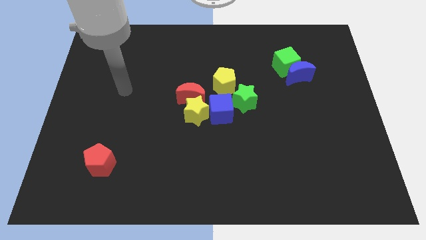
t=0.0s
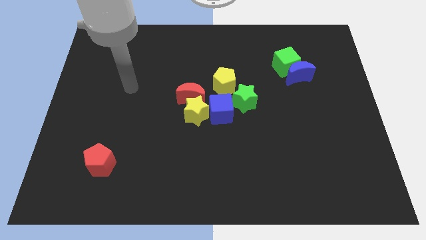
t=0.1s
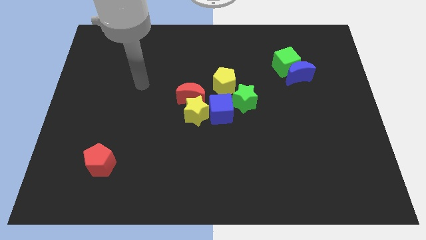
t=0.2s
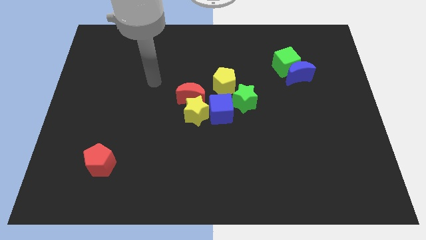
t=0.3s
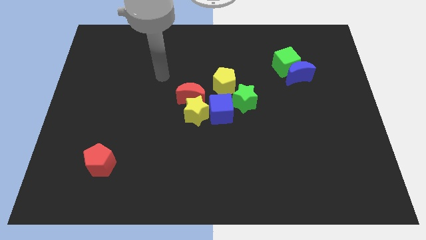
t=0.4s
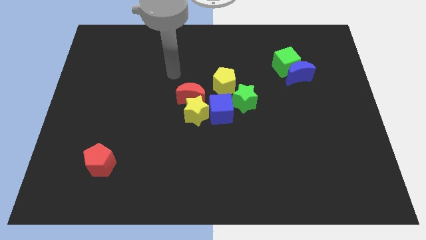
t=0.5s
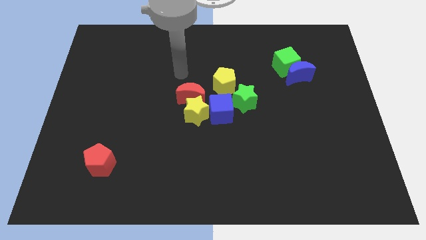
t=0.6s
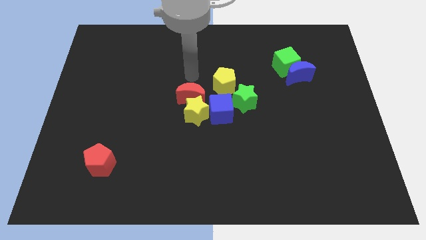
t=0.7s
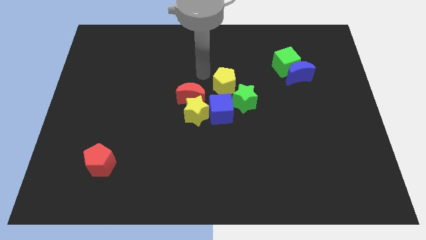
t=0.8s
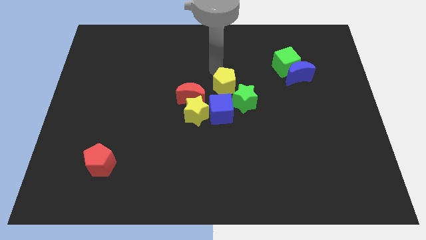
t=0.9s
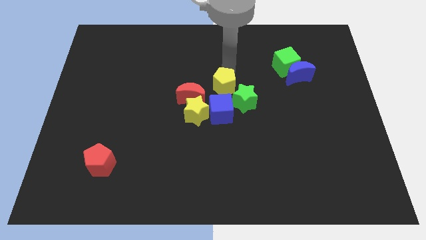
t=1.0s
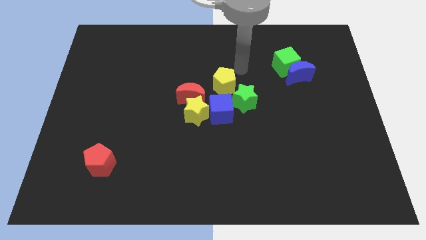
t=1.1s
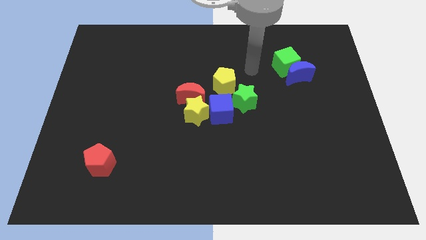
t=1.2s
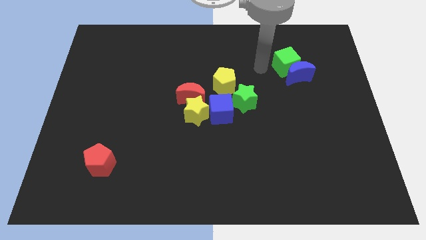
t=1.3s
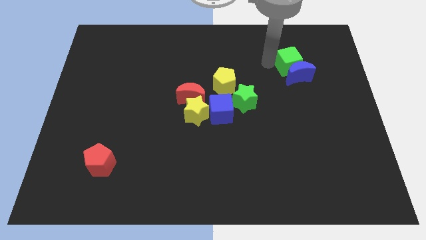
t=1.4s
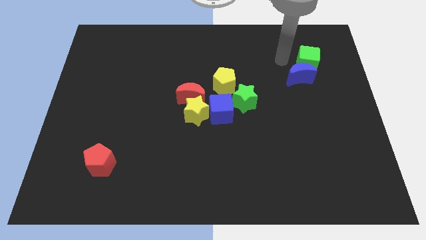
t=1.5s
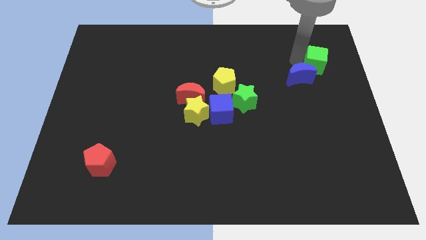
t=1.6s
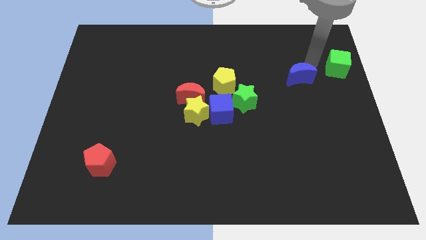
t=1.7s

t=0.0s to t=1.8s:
pull the blue moon apart from the green cube

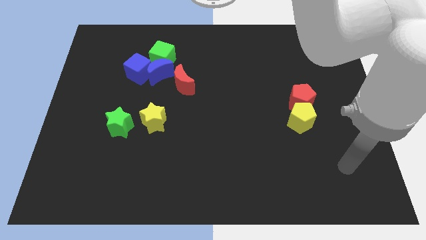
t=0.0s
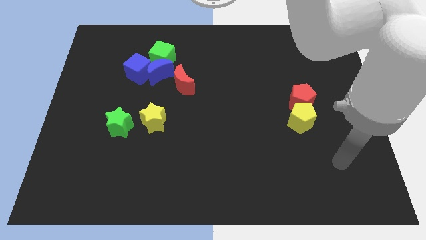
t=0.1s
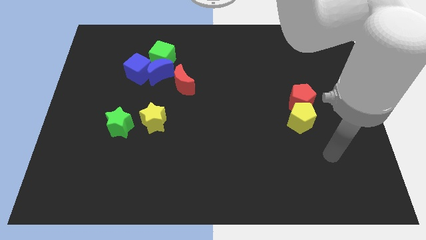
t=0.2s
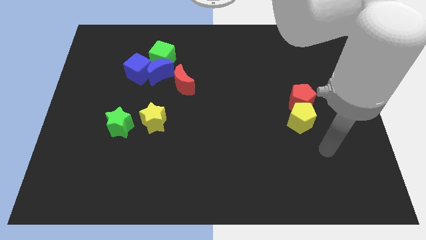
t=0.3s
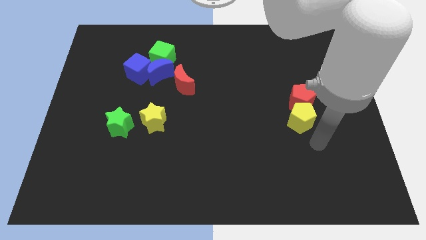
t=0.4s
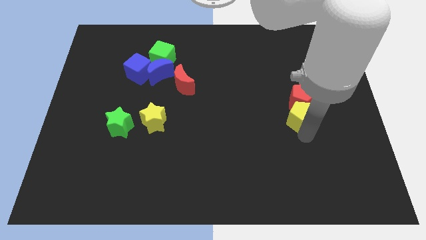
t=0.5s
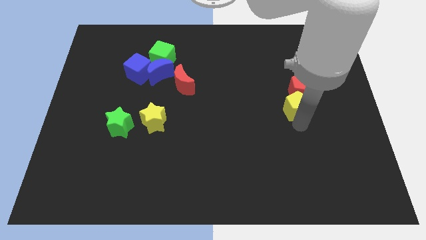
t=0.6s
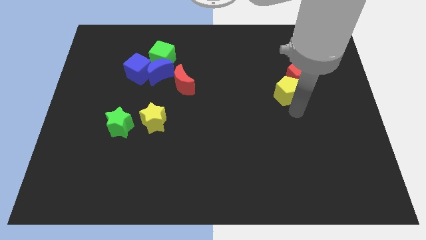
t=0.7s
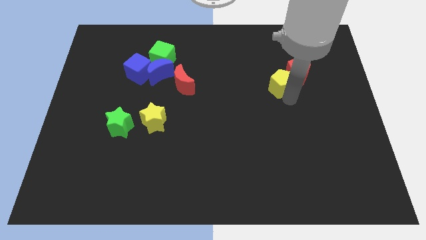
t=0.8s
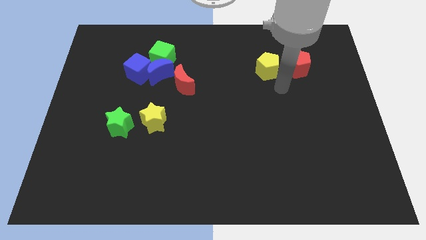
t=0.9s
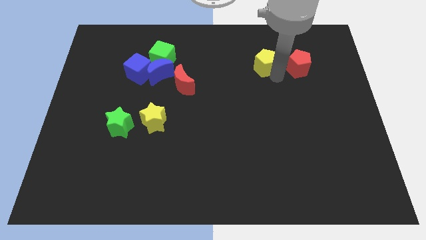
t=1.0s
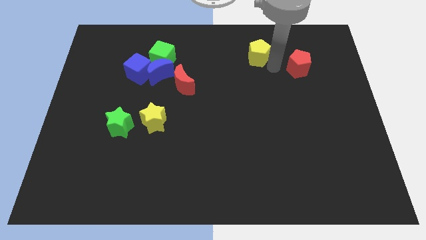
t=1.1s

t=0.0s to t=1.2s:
separate the red pentagon from the yellow pentagon

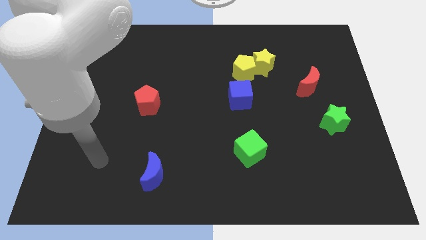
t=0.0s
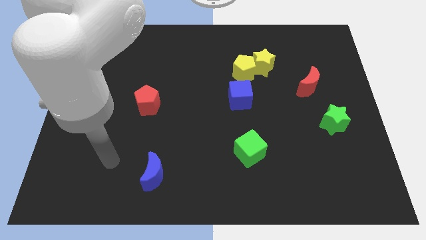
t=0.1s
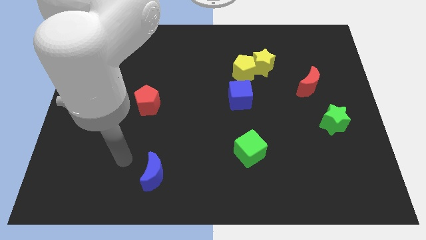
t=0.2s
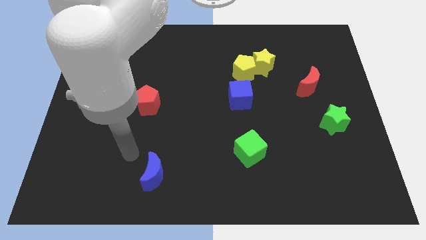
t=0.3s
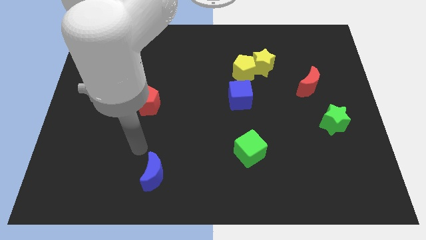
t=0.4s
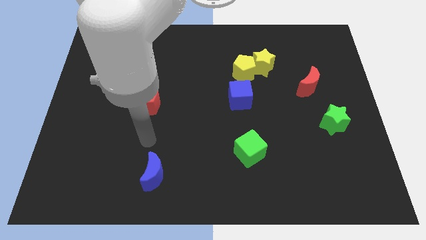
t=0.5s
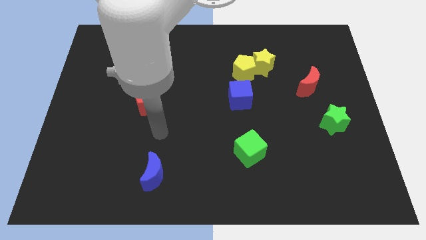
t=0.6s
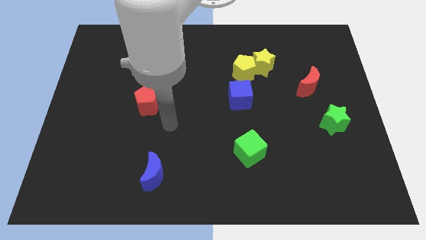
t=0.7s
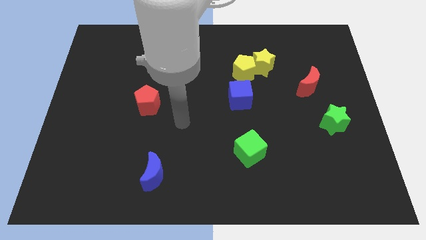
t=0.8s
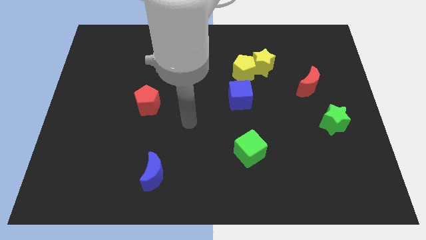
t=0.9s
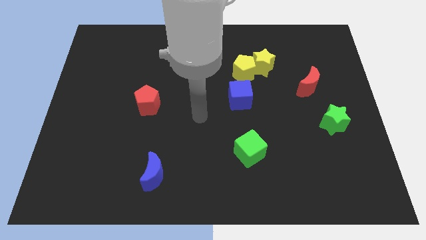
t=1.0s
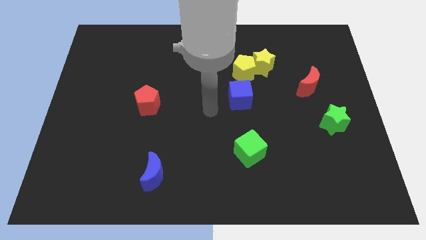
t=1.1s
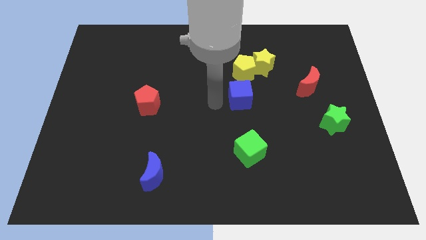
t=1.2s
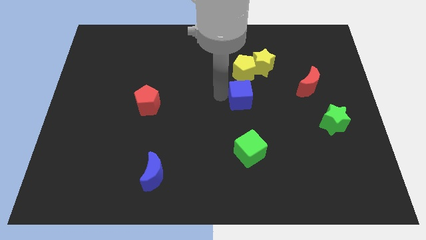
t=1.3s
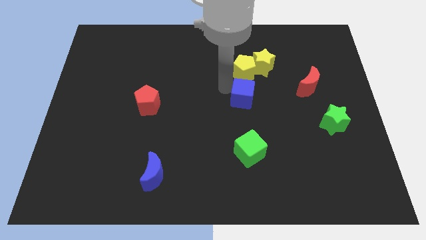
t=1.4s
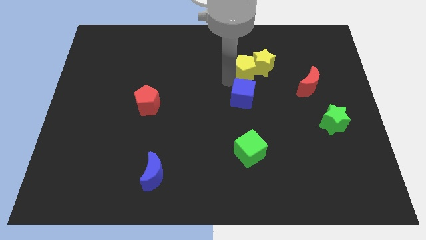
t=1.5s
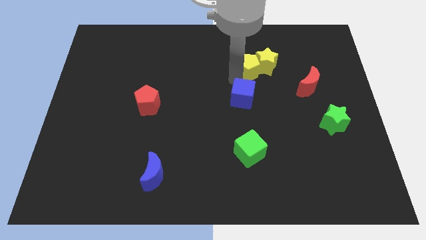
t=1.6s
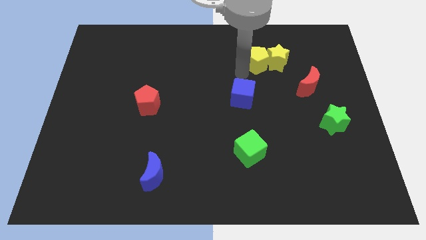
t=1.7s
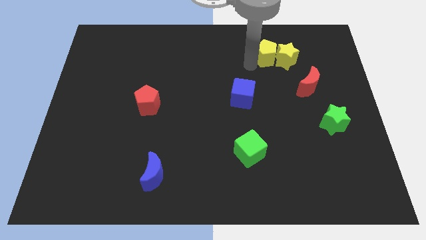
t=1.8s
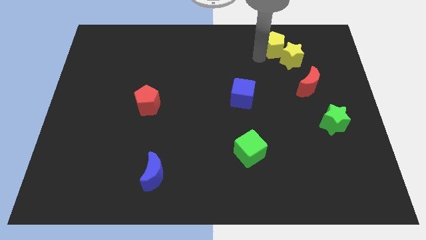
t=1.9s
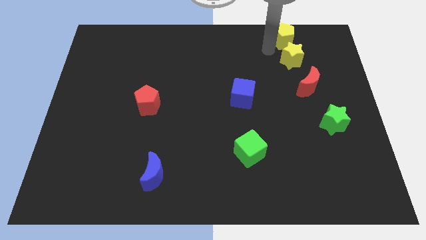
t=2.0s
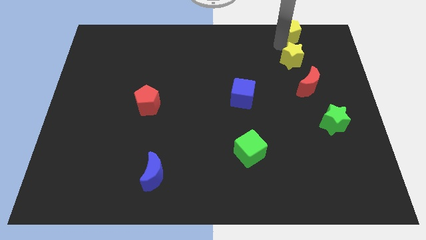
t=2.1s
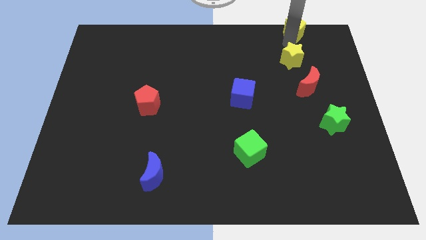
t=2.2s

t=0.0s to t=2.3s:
separate the yellow star from the yellow pentagon

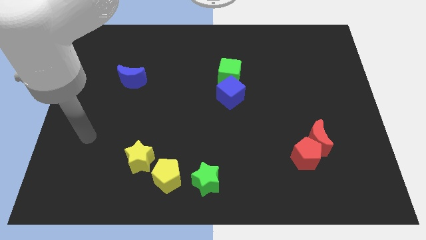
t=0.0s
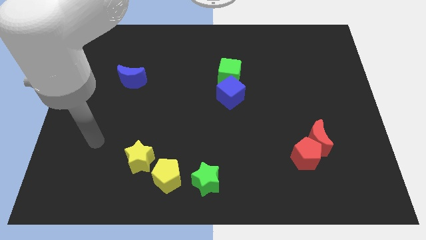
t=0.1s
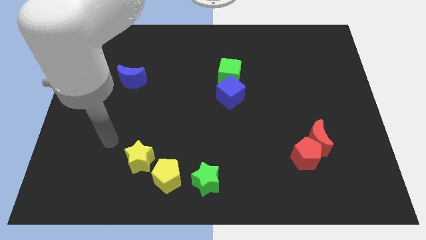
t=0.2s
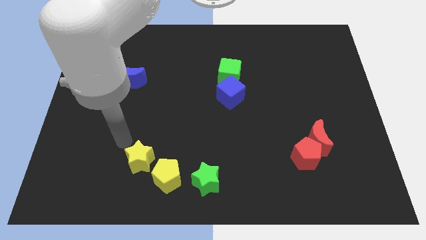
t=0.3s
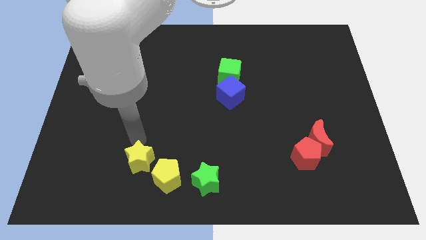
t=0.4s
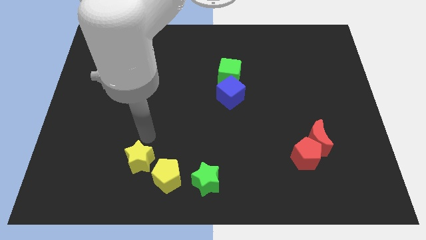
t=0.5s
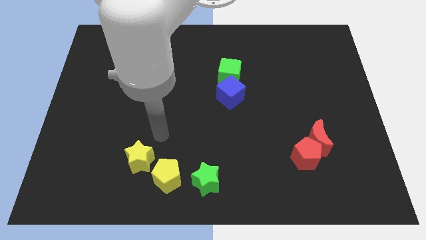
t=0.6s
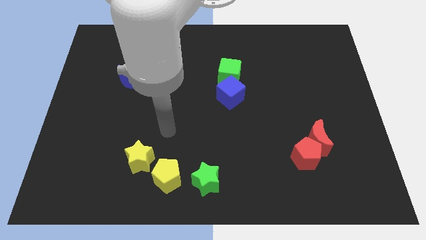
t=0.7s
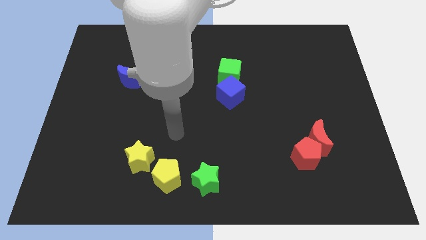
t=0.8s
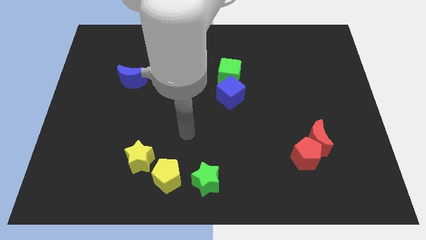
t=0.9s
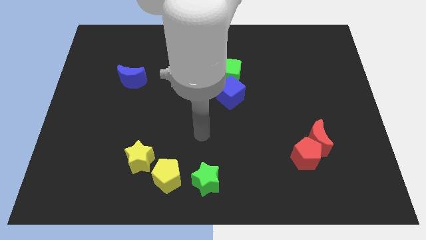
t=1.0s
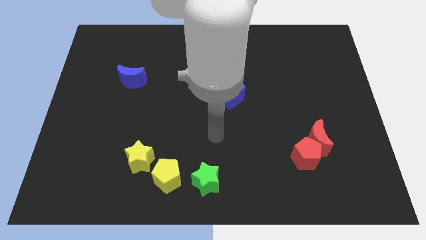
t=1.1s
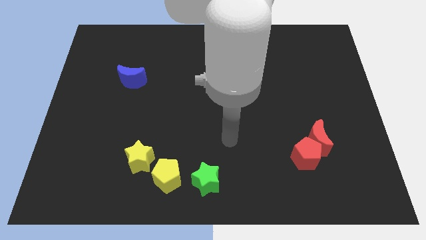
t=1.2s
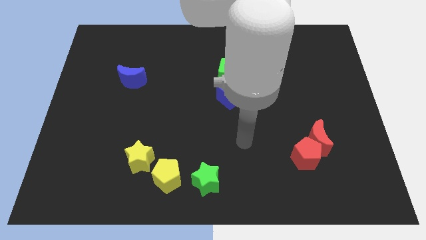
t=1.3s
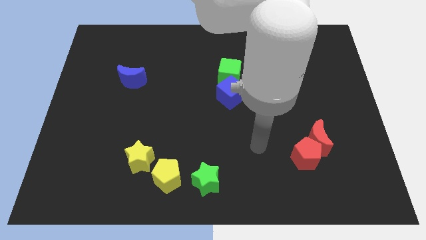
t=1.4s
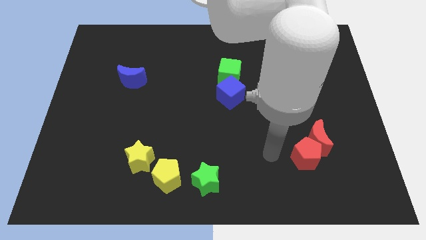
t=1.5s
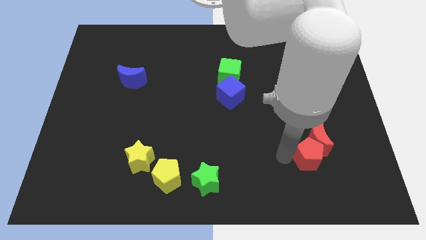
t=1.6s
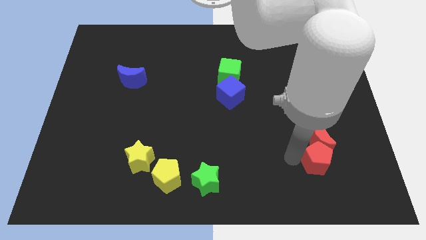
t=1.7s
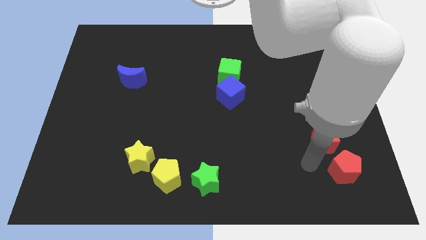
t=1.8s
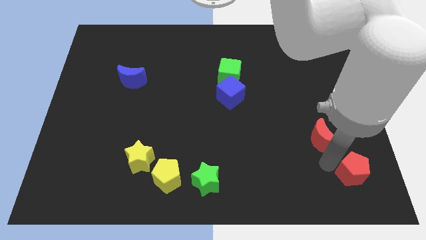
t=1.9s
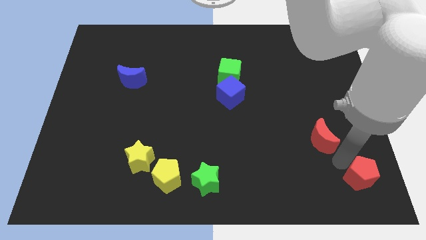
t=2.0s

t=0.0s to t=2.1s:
separate the red moon from the red pentagon

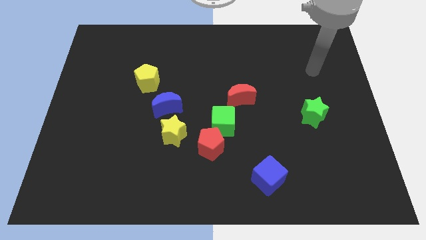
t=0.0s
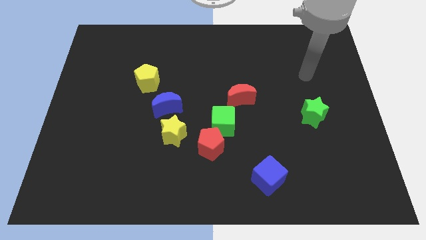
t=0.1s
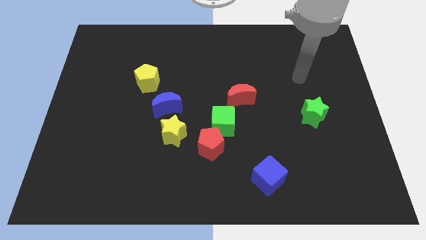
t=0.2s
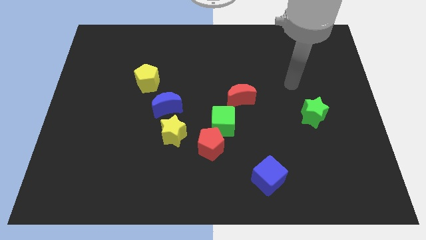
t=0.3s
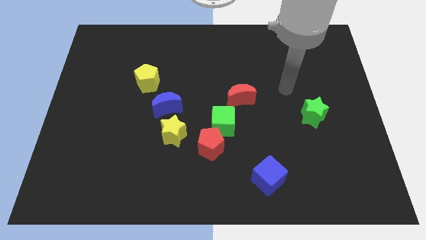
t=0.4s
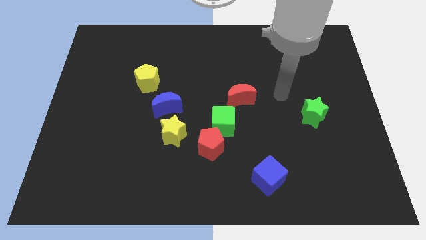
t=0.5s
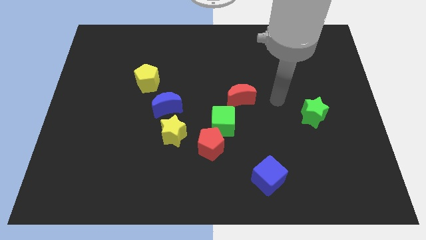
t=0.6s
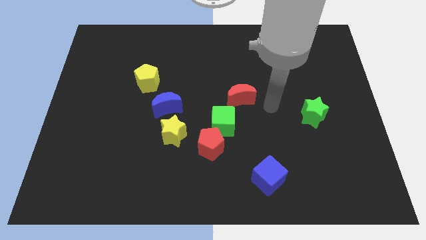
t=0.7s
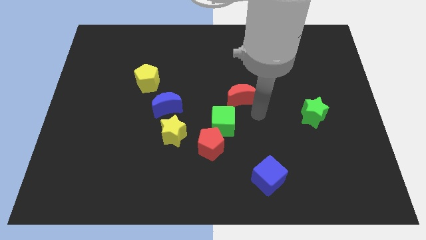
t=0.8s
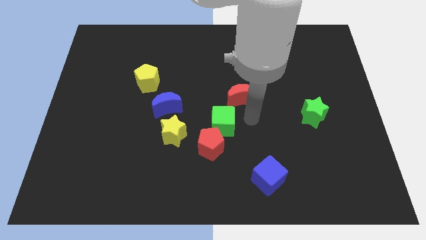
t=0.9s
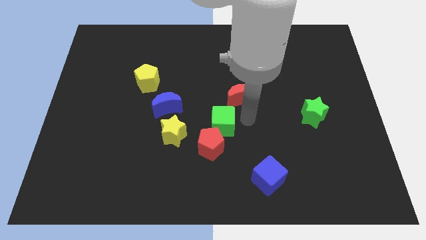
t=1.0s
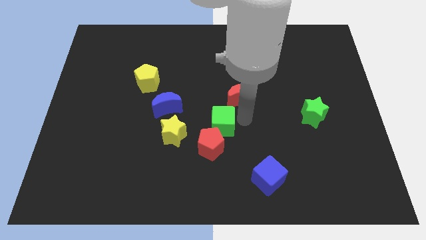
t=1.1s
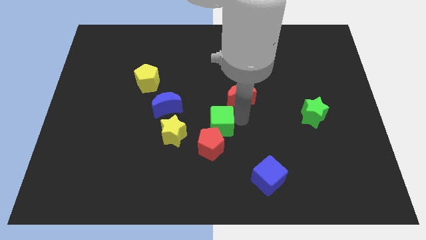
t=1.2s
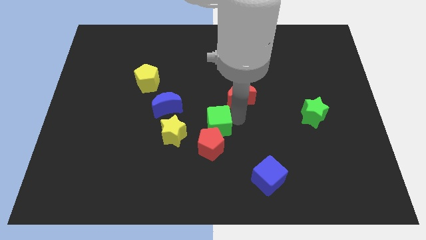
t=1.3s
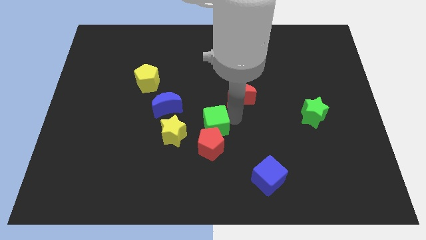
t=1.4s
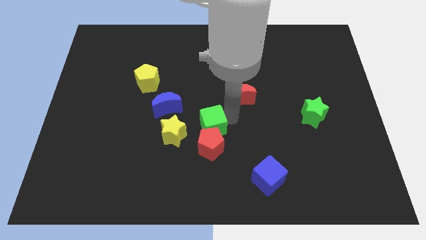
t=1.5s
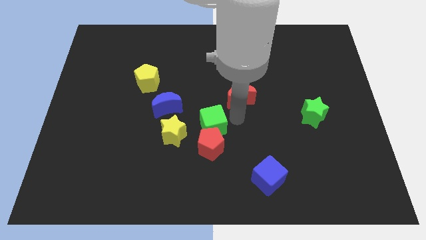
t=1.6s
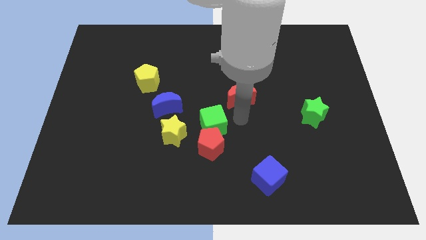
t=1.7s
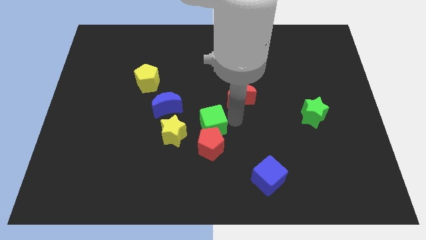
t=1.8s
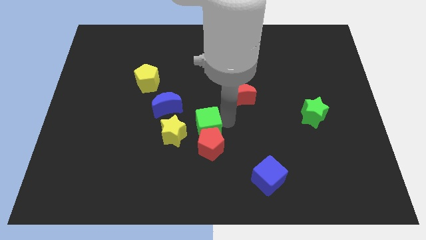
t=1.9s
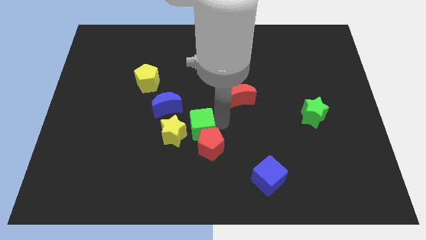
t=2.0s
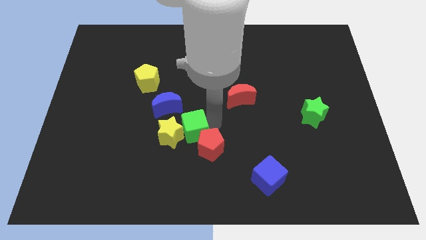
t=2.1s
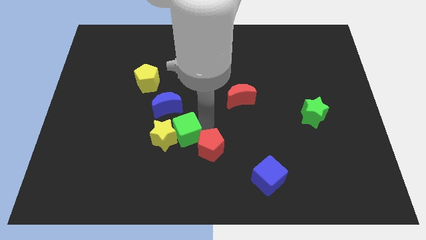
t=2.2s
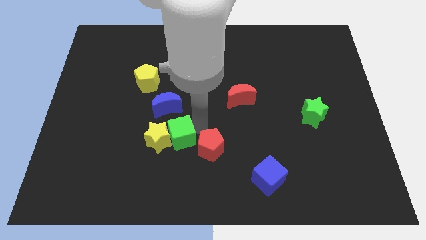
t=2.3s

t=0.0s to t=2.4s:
pull the green cube apart from the red pentagon and red moon
